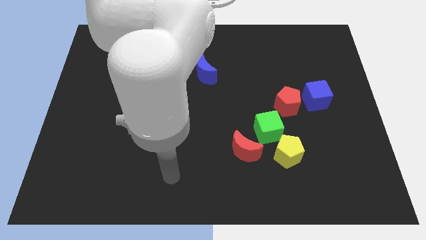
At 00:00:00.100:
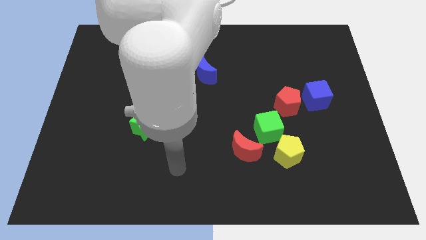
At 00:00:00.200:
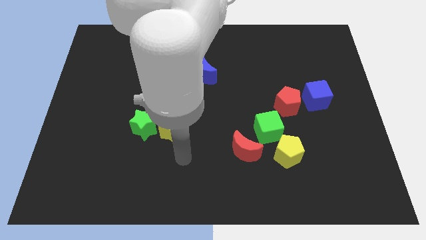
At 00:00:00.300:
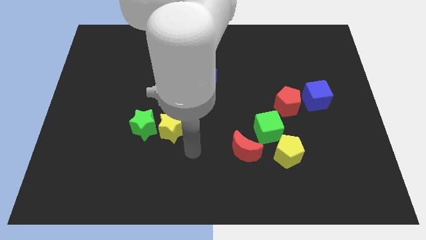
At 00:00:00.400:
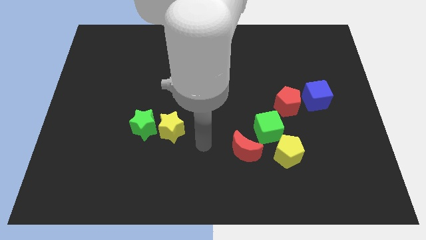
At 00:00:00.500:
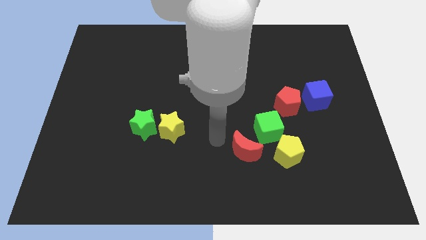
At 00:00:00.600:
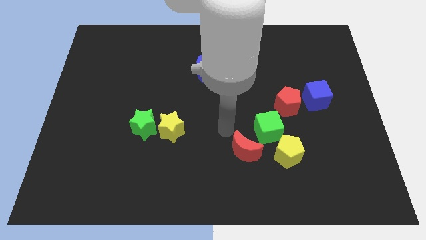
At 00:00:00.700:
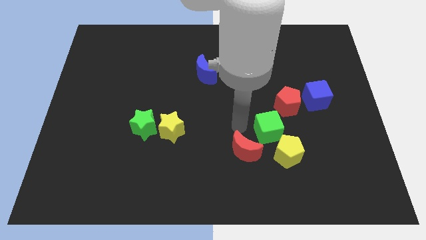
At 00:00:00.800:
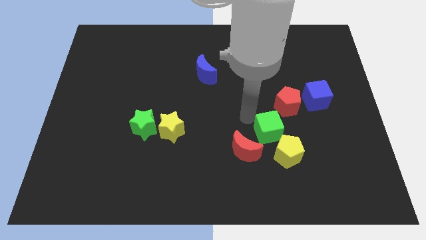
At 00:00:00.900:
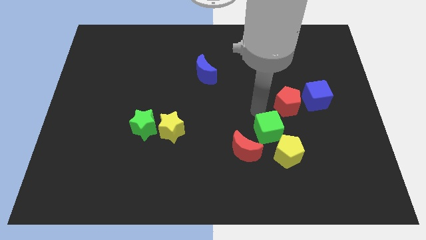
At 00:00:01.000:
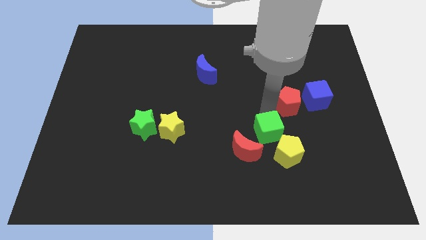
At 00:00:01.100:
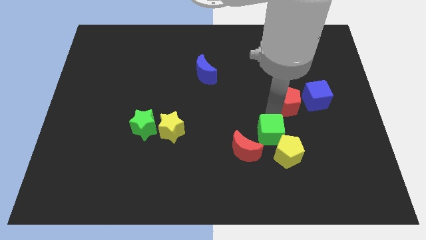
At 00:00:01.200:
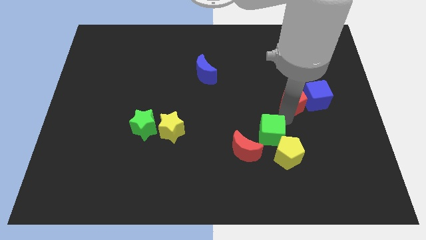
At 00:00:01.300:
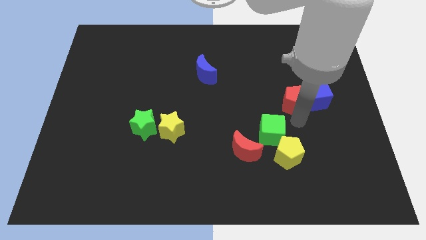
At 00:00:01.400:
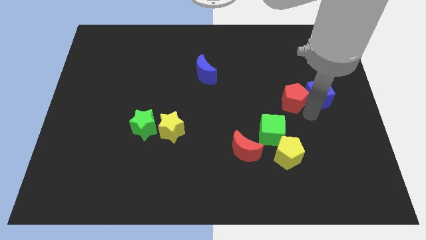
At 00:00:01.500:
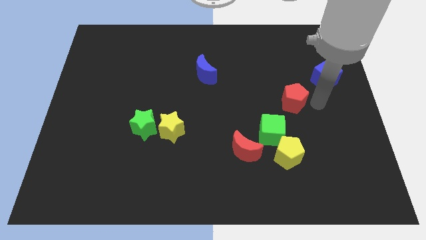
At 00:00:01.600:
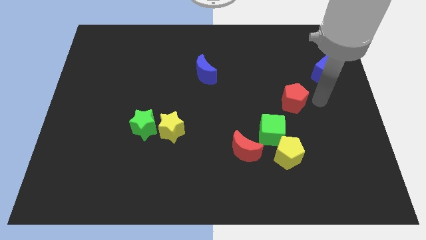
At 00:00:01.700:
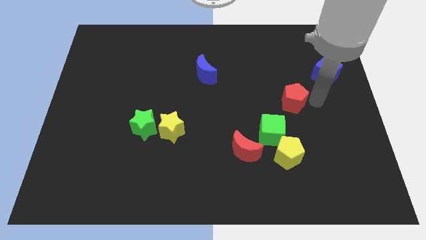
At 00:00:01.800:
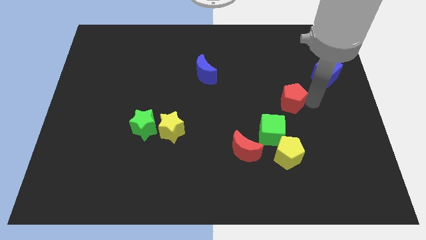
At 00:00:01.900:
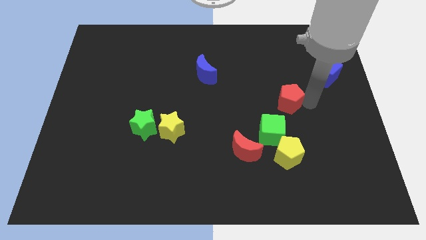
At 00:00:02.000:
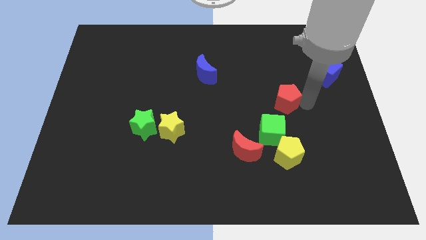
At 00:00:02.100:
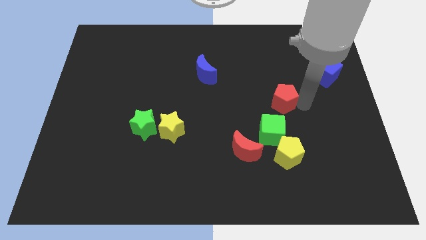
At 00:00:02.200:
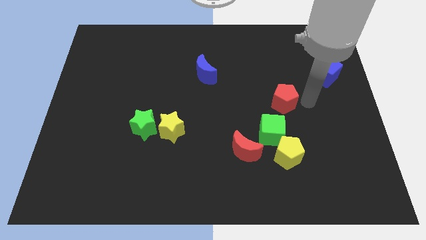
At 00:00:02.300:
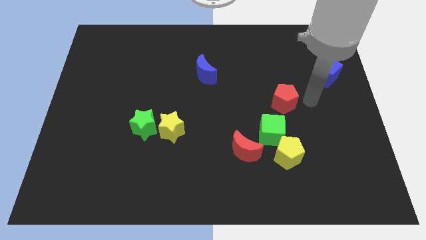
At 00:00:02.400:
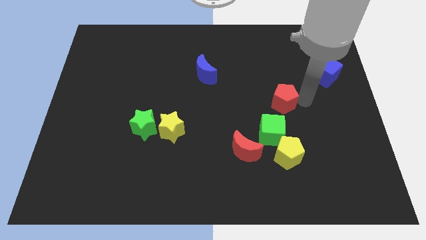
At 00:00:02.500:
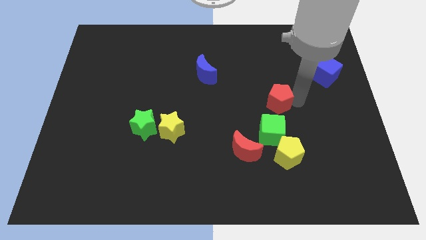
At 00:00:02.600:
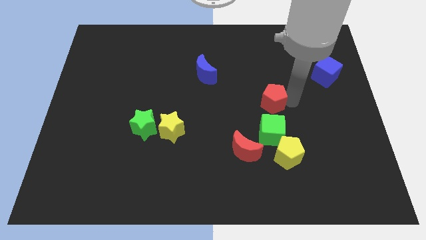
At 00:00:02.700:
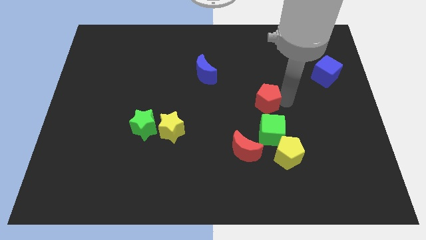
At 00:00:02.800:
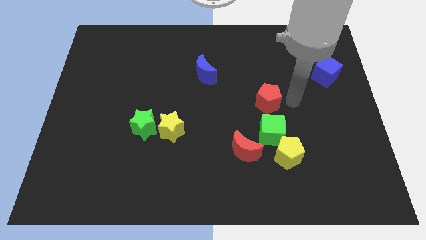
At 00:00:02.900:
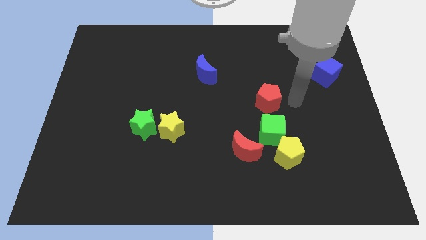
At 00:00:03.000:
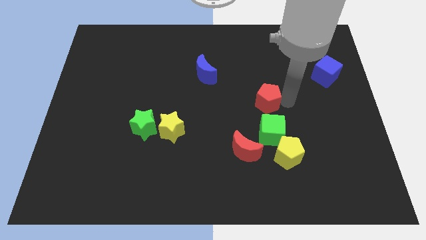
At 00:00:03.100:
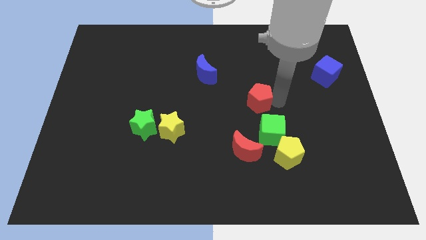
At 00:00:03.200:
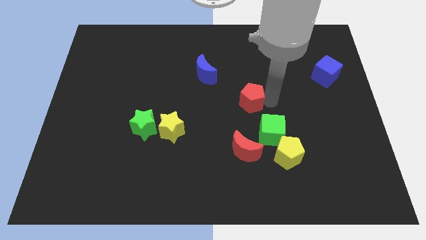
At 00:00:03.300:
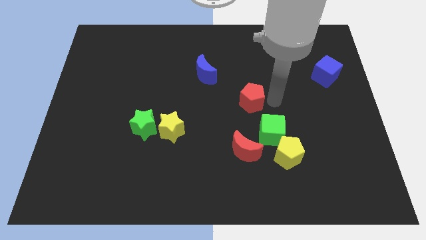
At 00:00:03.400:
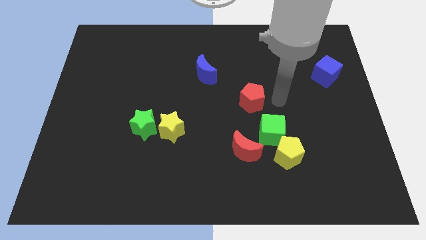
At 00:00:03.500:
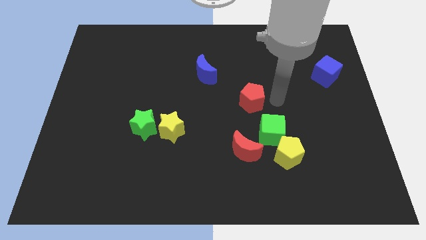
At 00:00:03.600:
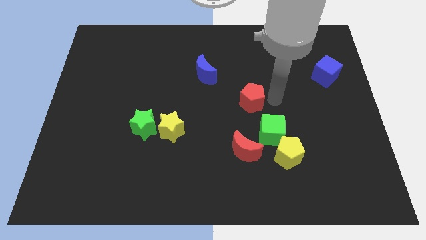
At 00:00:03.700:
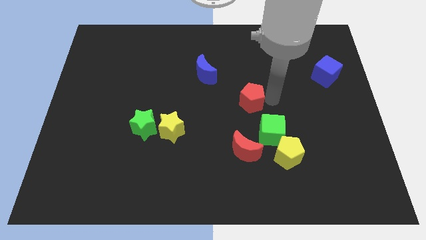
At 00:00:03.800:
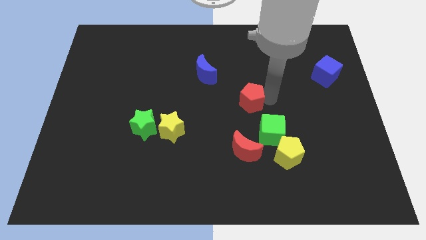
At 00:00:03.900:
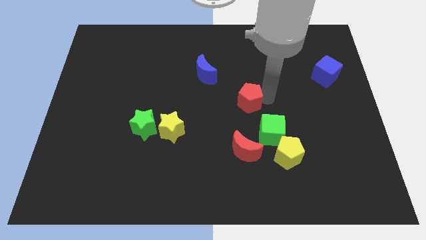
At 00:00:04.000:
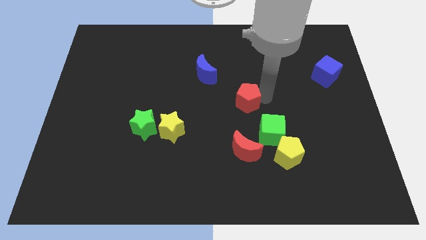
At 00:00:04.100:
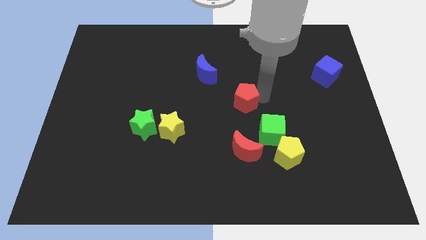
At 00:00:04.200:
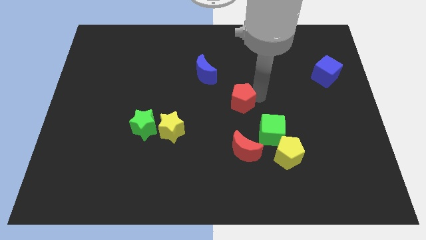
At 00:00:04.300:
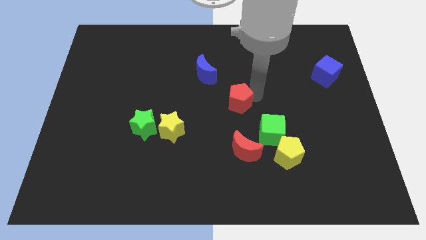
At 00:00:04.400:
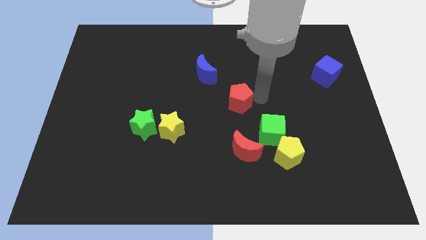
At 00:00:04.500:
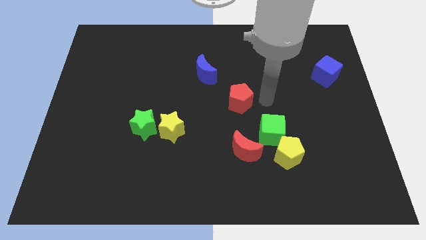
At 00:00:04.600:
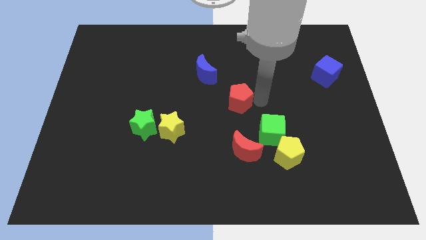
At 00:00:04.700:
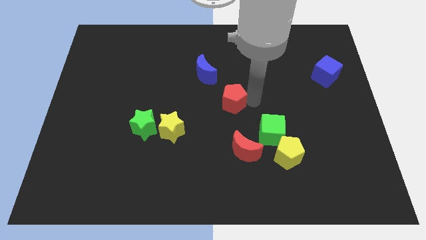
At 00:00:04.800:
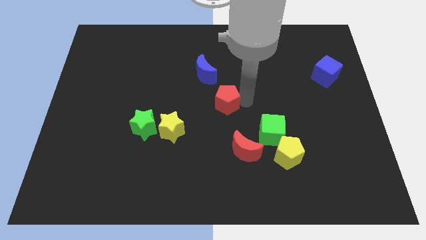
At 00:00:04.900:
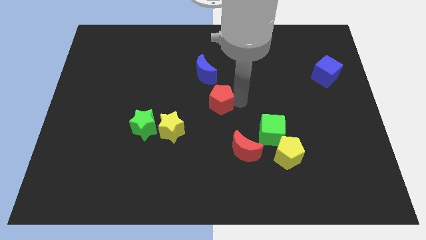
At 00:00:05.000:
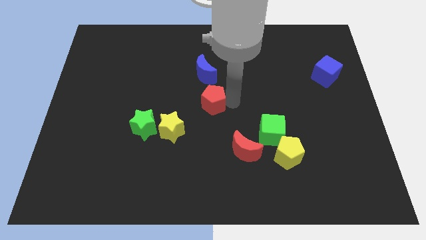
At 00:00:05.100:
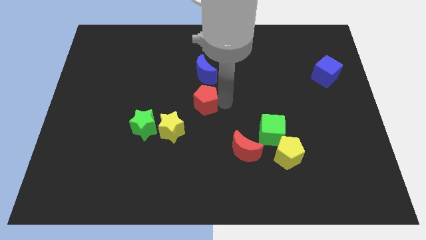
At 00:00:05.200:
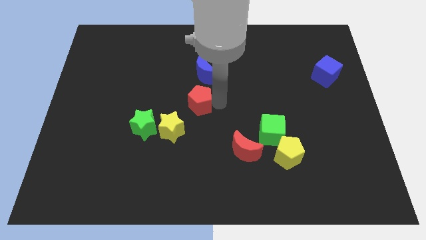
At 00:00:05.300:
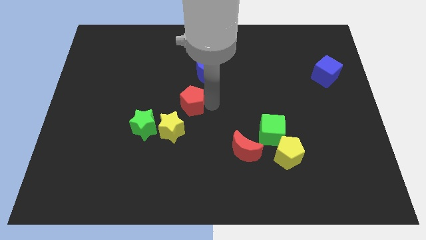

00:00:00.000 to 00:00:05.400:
slide the red pentagon above the yellow star

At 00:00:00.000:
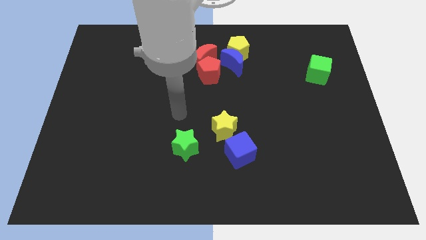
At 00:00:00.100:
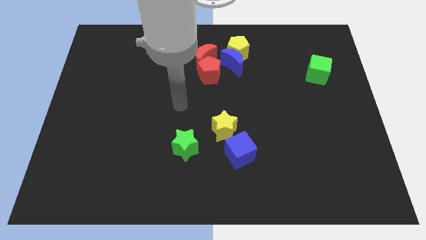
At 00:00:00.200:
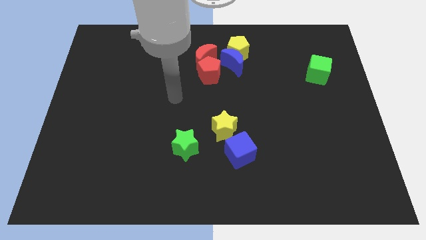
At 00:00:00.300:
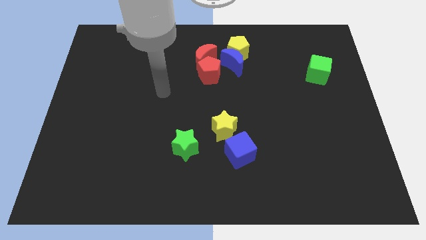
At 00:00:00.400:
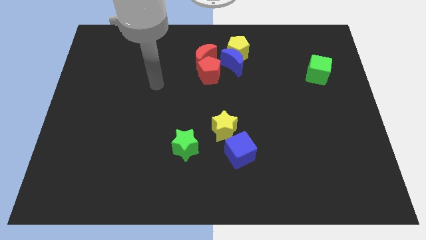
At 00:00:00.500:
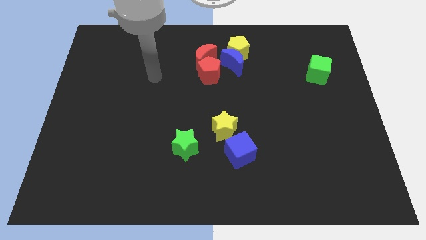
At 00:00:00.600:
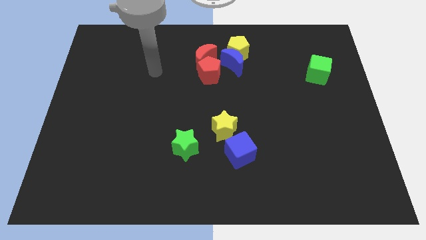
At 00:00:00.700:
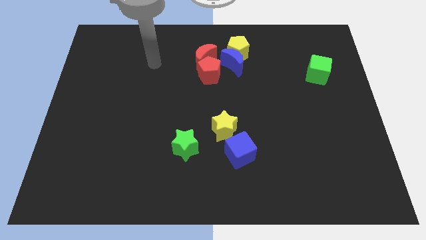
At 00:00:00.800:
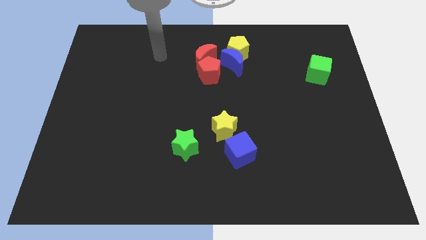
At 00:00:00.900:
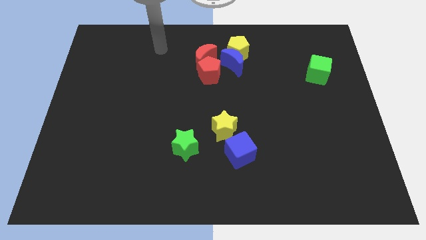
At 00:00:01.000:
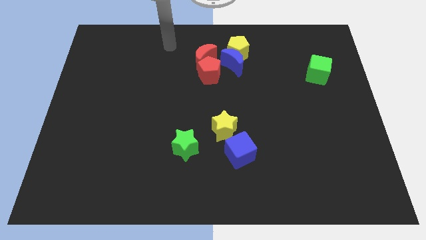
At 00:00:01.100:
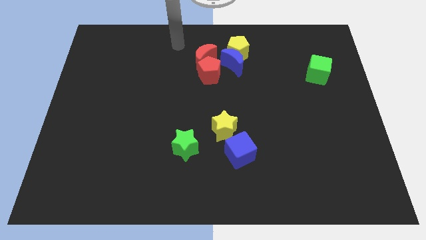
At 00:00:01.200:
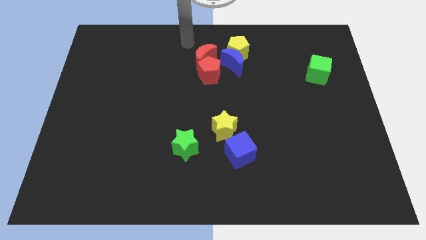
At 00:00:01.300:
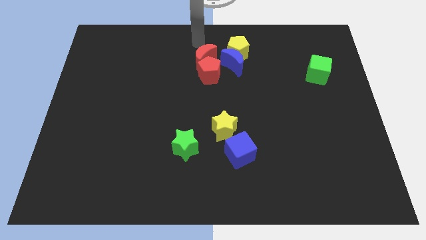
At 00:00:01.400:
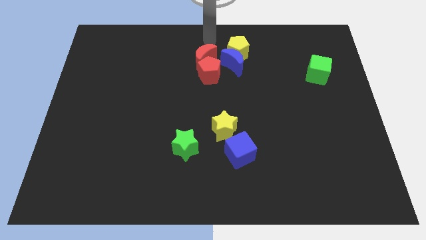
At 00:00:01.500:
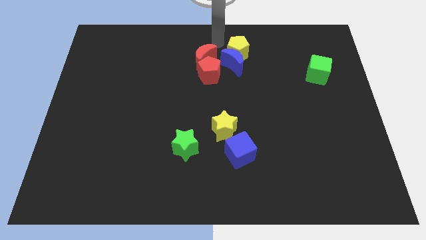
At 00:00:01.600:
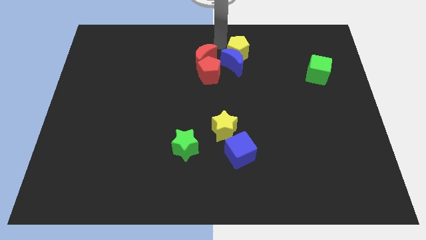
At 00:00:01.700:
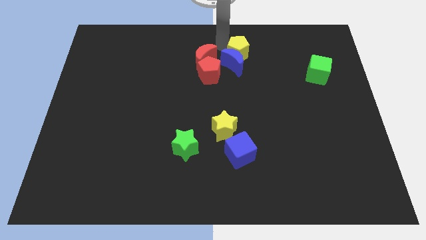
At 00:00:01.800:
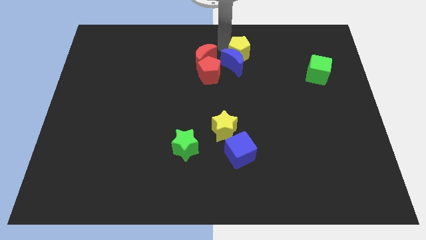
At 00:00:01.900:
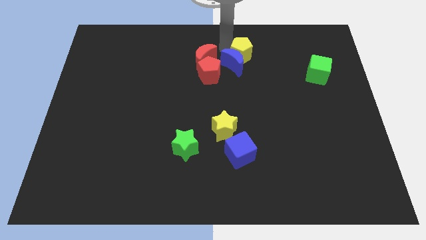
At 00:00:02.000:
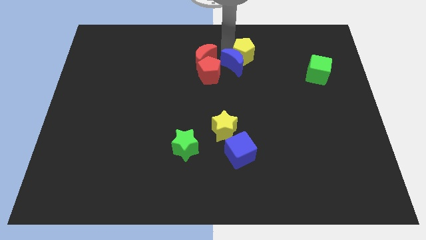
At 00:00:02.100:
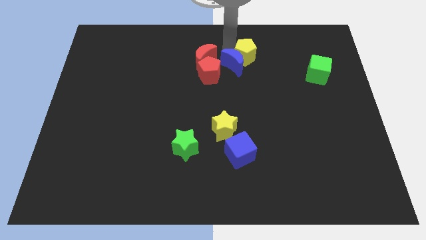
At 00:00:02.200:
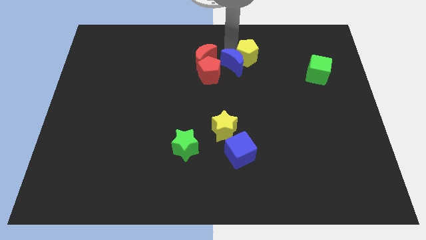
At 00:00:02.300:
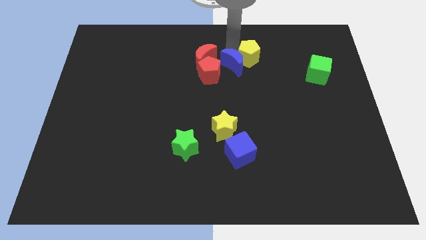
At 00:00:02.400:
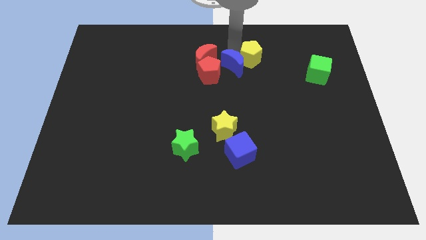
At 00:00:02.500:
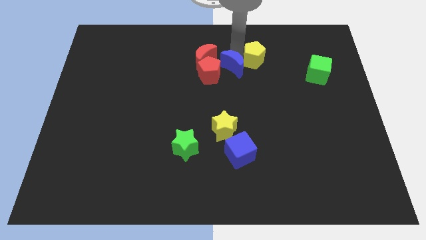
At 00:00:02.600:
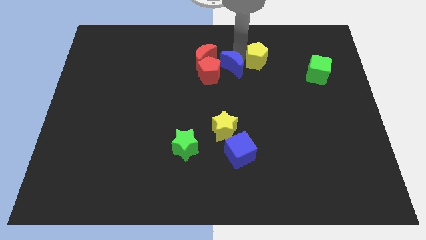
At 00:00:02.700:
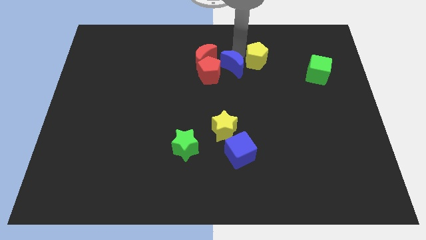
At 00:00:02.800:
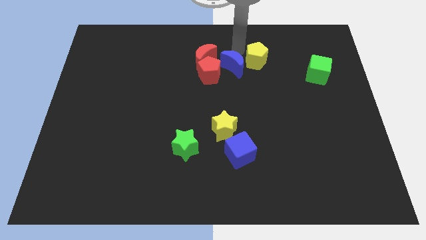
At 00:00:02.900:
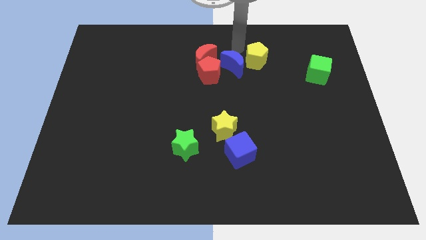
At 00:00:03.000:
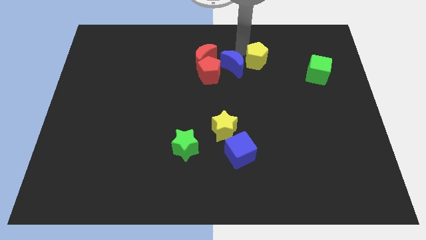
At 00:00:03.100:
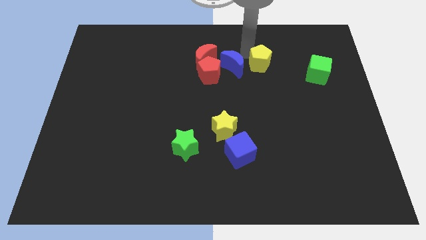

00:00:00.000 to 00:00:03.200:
slide the yellow pentagon just left of the green cube
